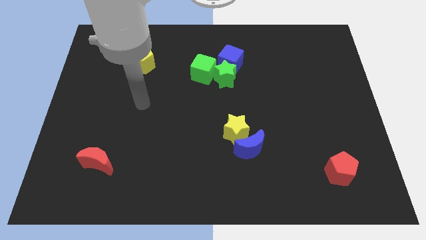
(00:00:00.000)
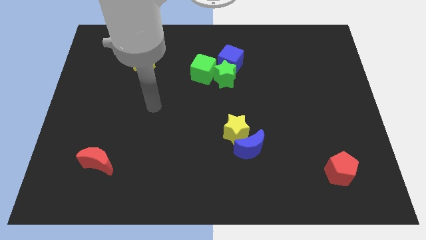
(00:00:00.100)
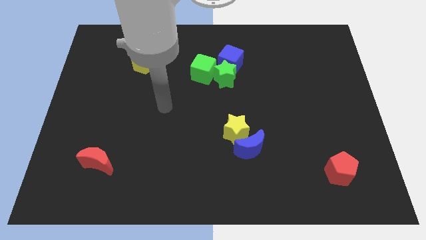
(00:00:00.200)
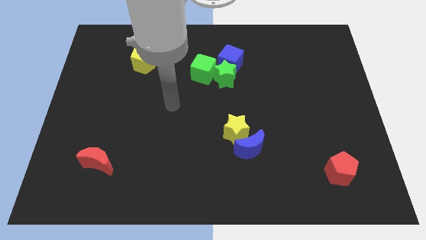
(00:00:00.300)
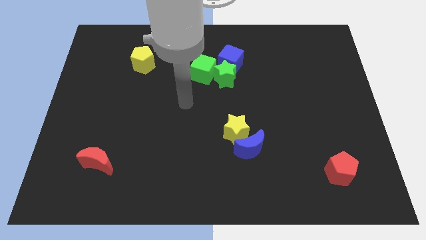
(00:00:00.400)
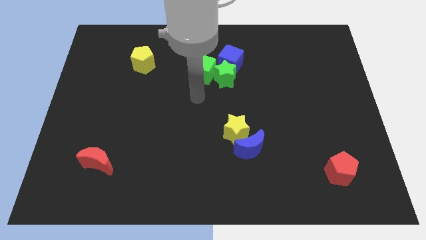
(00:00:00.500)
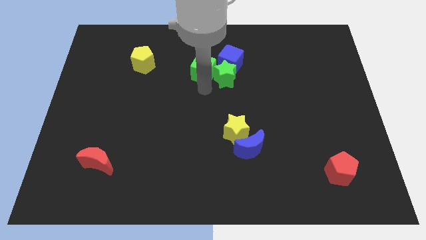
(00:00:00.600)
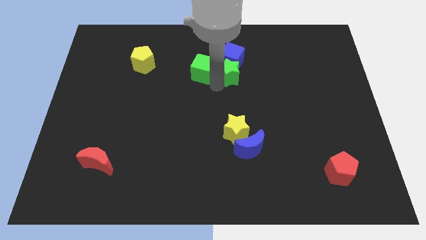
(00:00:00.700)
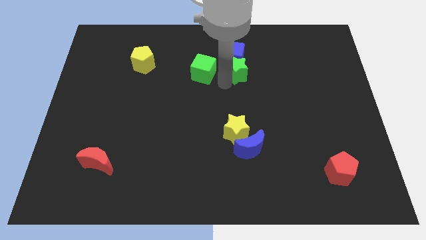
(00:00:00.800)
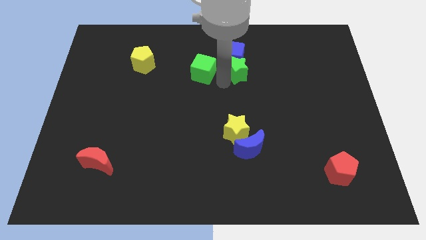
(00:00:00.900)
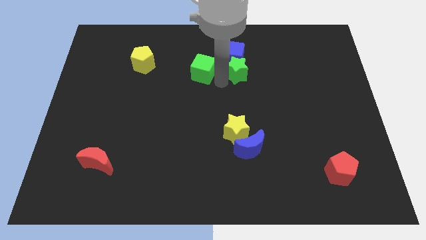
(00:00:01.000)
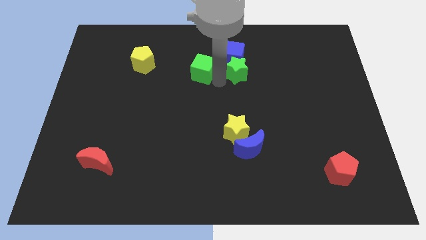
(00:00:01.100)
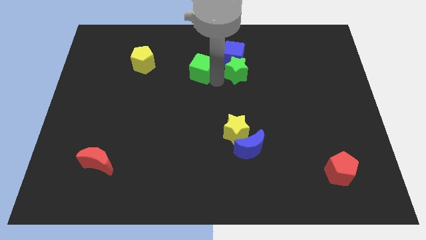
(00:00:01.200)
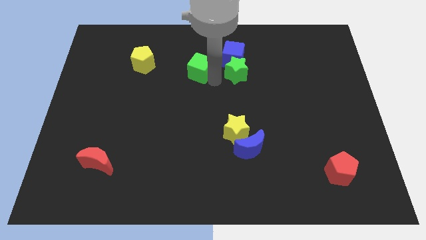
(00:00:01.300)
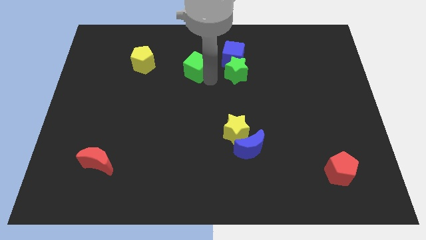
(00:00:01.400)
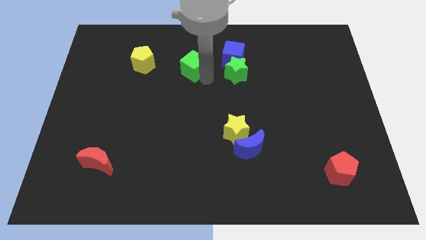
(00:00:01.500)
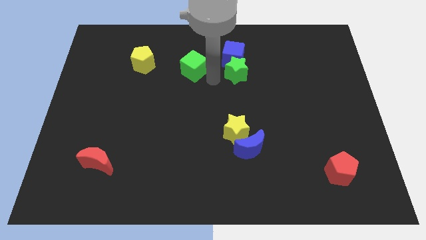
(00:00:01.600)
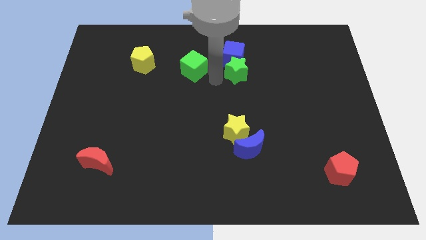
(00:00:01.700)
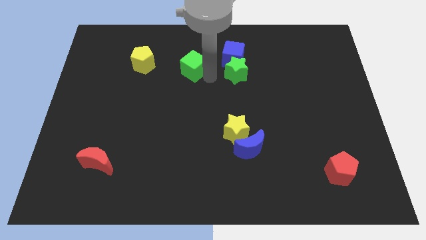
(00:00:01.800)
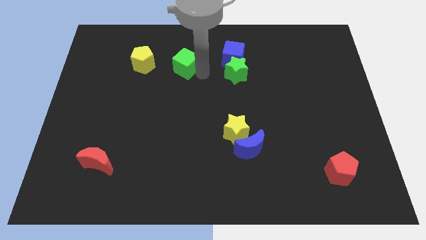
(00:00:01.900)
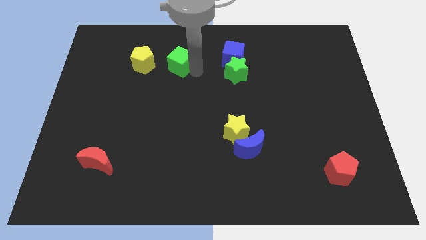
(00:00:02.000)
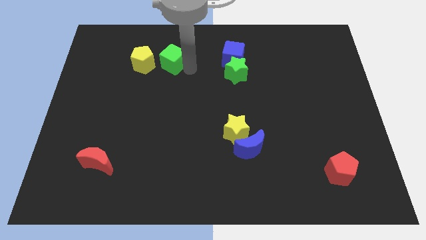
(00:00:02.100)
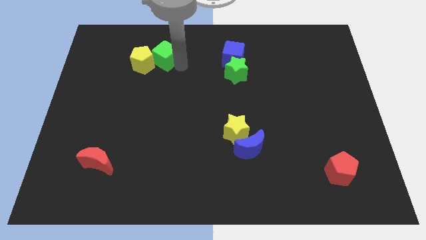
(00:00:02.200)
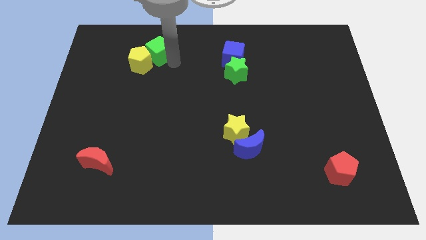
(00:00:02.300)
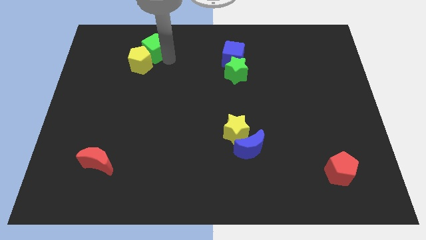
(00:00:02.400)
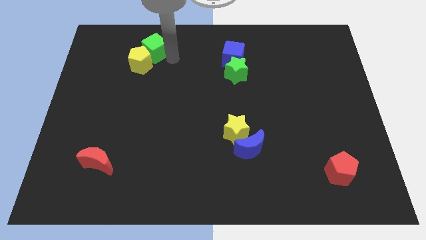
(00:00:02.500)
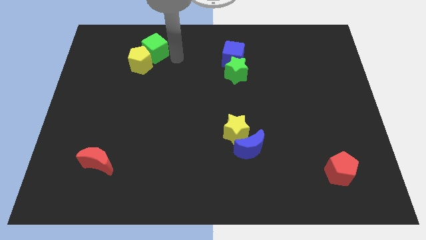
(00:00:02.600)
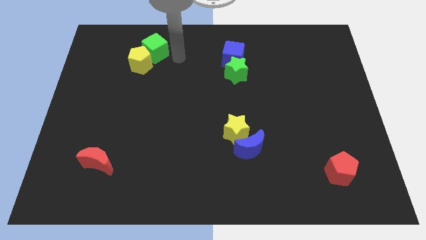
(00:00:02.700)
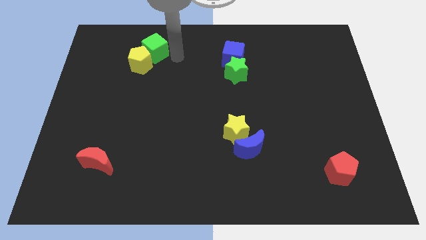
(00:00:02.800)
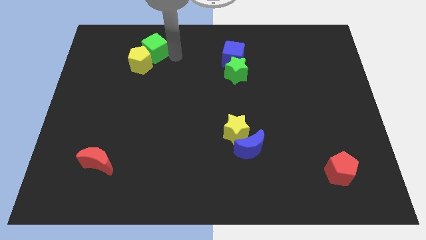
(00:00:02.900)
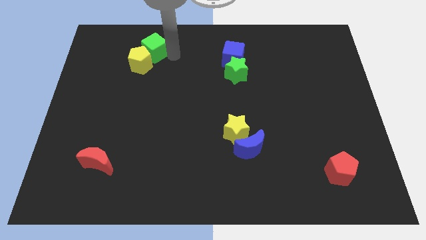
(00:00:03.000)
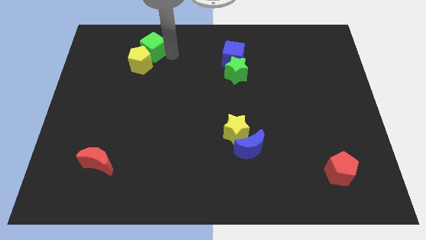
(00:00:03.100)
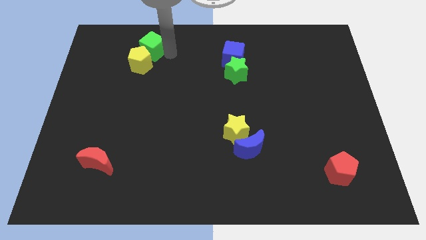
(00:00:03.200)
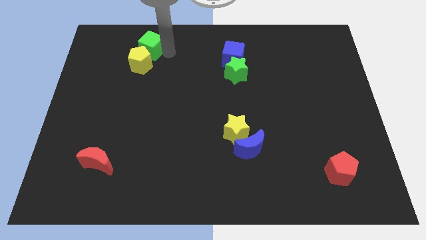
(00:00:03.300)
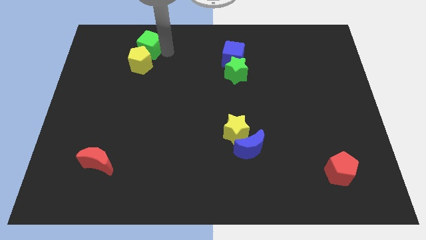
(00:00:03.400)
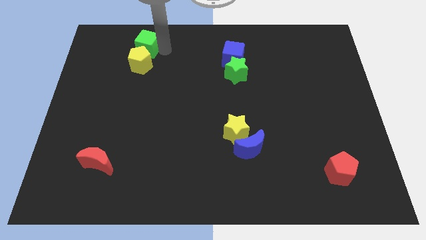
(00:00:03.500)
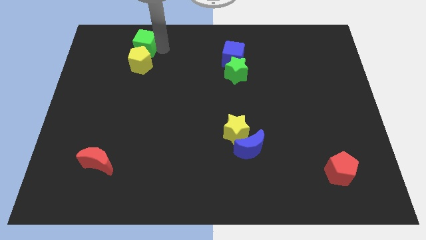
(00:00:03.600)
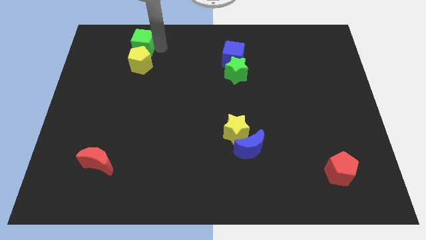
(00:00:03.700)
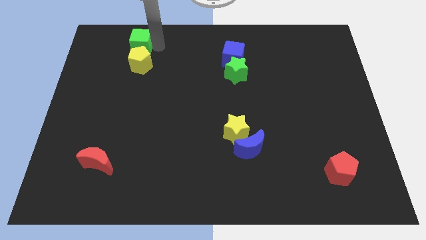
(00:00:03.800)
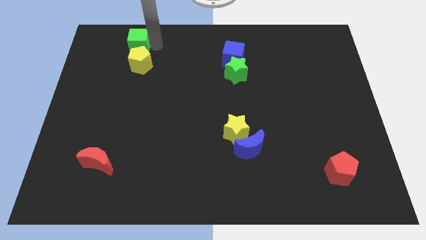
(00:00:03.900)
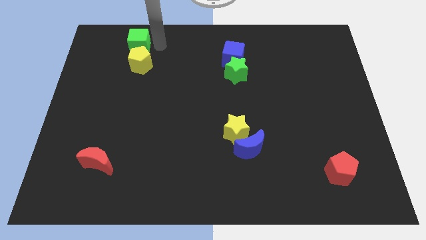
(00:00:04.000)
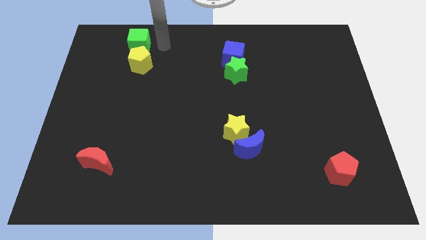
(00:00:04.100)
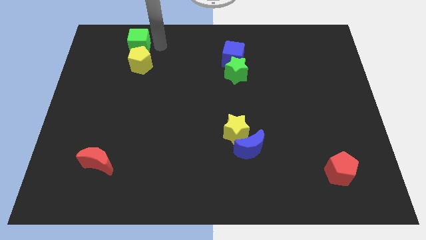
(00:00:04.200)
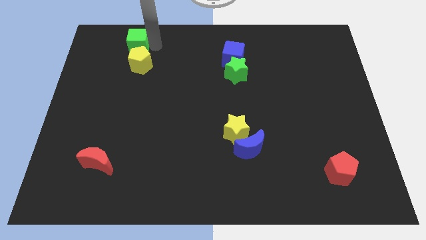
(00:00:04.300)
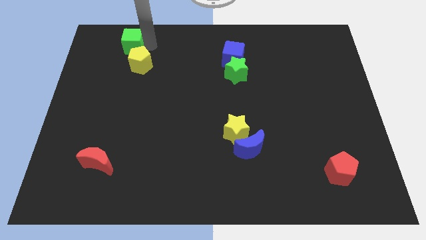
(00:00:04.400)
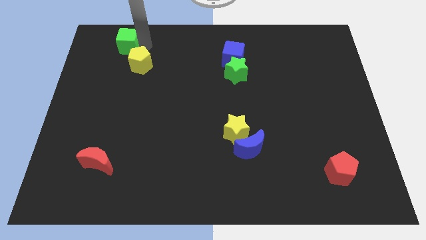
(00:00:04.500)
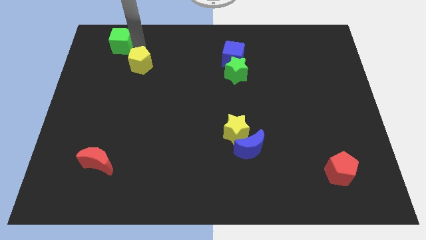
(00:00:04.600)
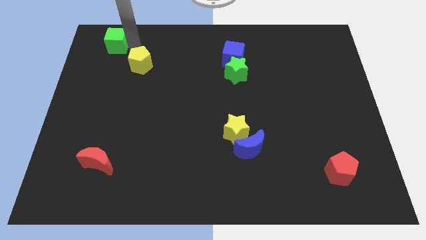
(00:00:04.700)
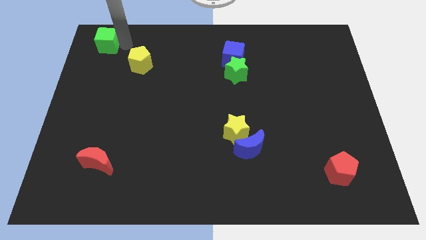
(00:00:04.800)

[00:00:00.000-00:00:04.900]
move the green cube to the top left

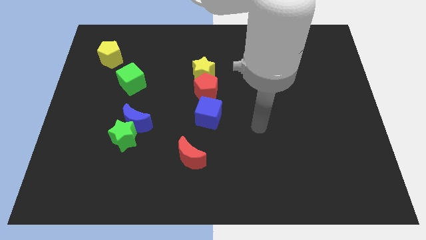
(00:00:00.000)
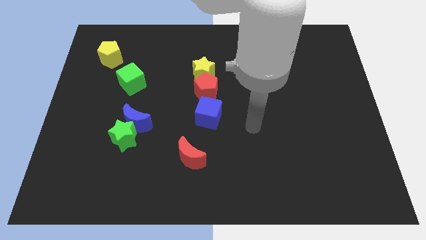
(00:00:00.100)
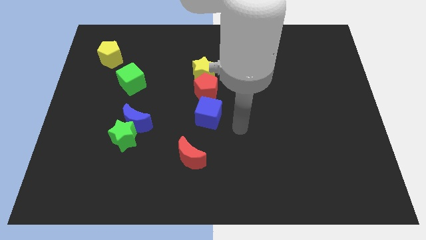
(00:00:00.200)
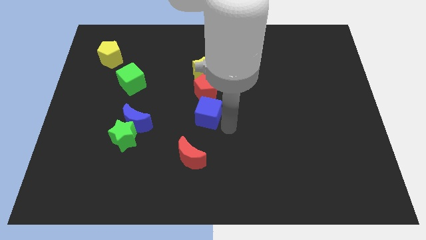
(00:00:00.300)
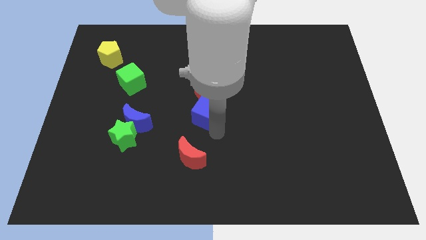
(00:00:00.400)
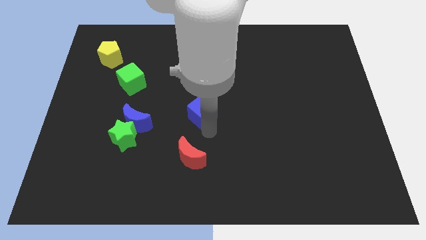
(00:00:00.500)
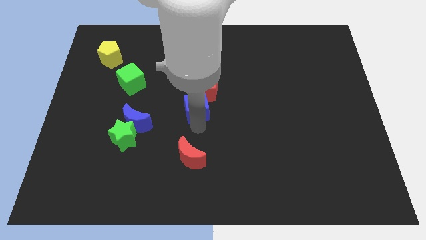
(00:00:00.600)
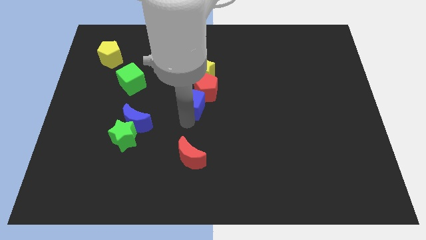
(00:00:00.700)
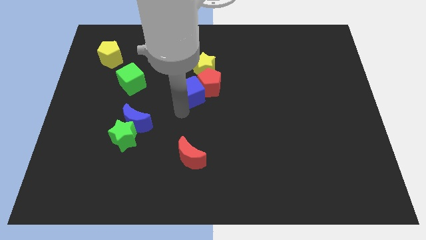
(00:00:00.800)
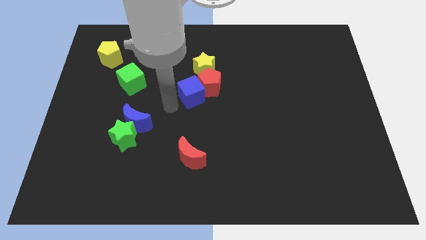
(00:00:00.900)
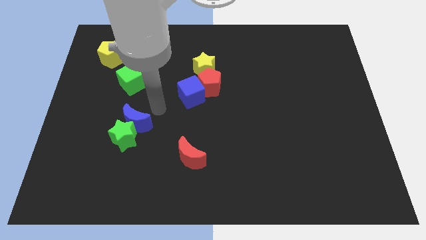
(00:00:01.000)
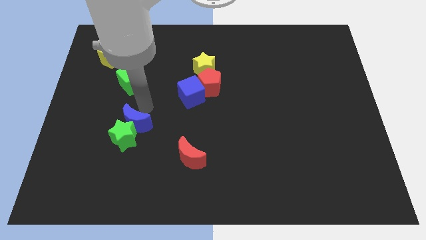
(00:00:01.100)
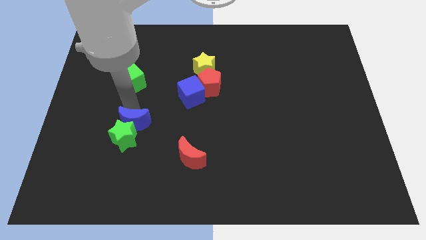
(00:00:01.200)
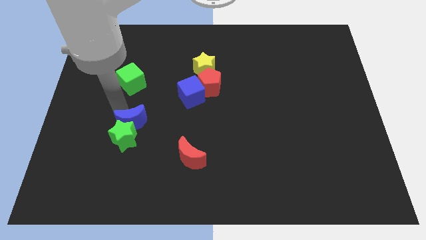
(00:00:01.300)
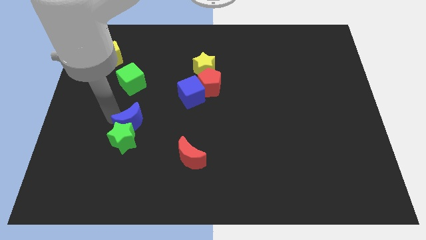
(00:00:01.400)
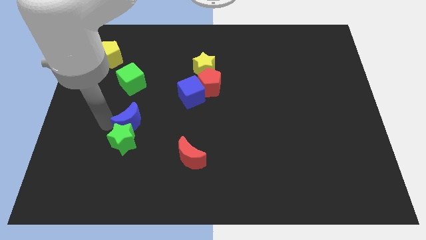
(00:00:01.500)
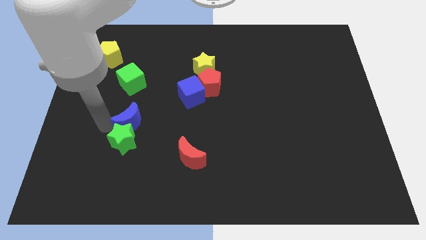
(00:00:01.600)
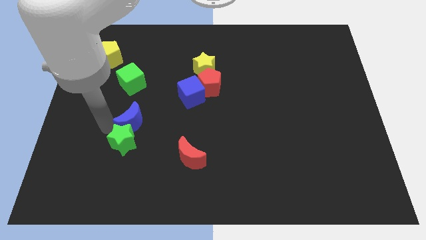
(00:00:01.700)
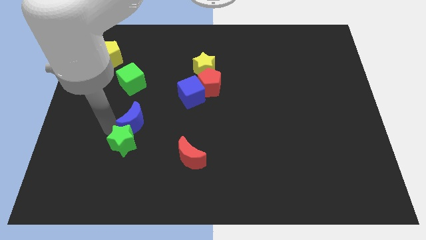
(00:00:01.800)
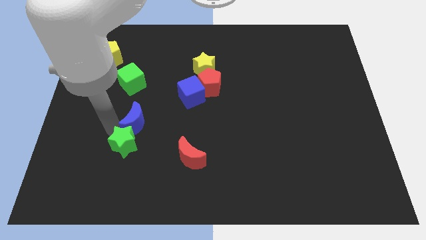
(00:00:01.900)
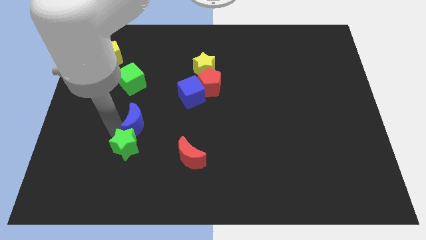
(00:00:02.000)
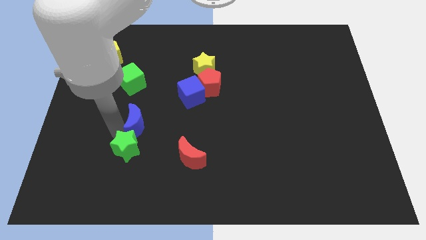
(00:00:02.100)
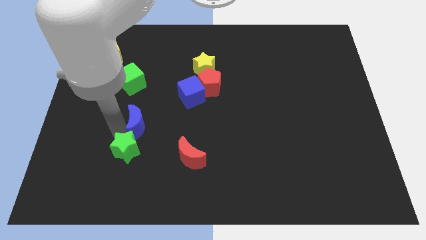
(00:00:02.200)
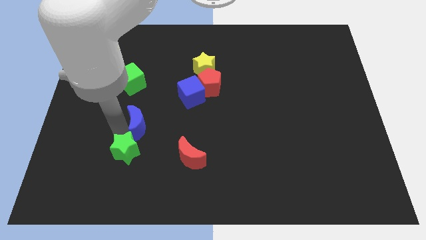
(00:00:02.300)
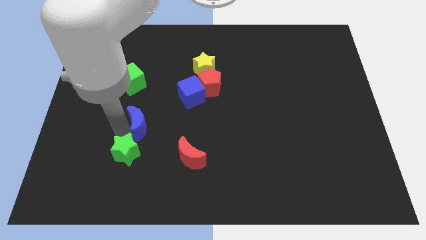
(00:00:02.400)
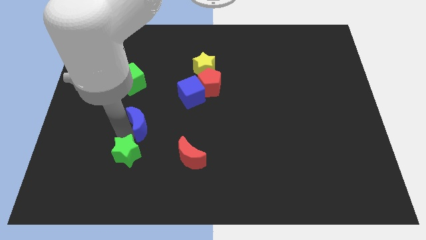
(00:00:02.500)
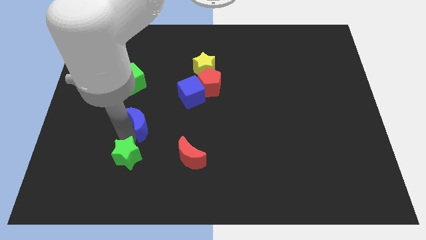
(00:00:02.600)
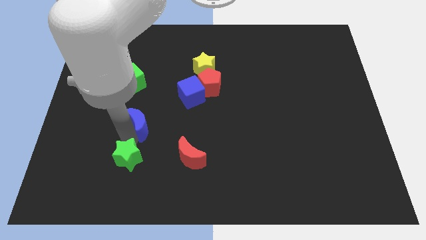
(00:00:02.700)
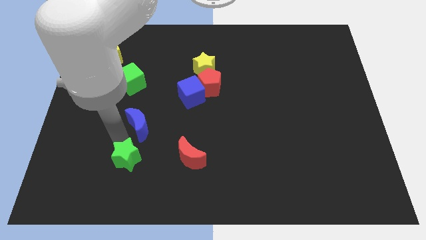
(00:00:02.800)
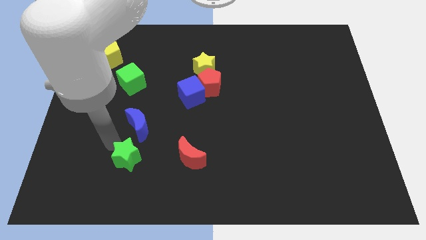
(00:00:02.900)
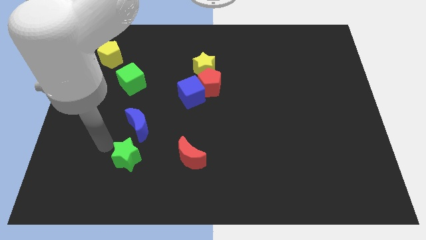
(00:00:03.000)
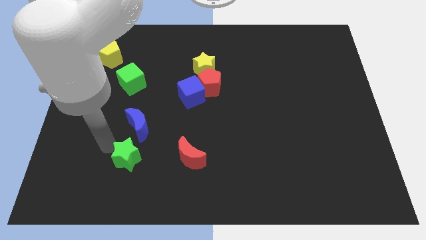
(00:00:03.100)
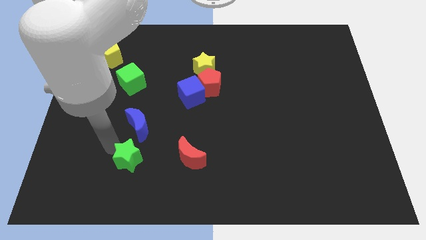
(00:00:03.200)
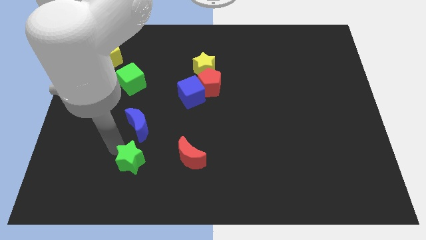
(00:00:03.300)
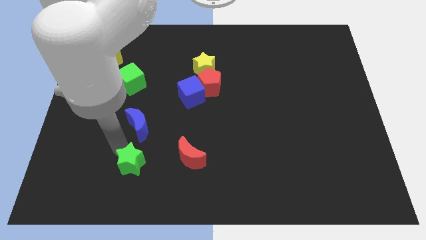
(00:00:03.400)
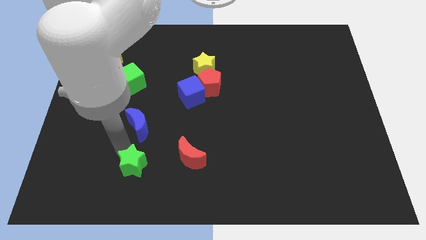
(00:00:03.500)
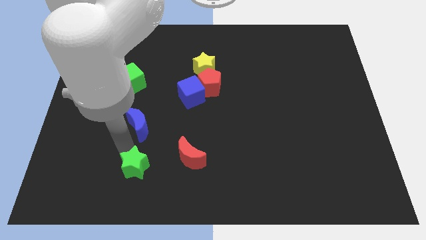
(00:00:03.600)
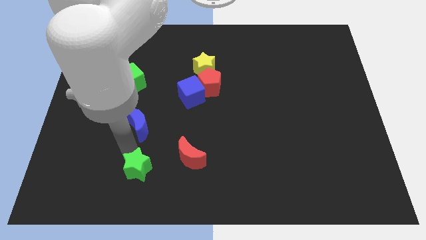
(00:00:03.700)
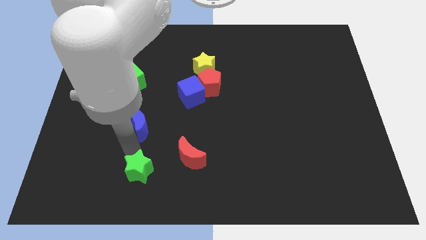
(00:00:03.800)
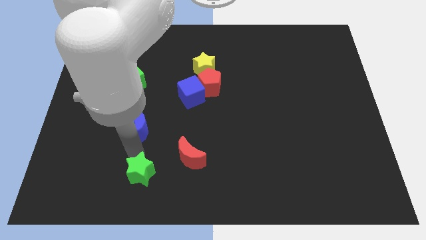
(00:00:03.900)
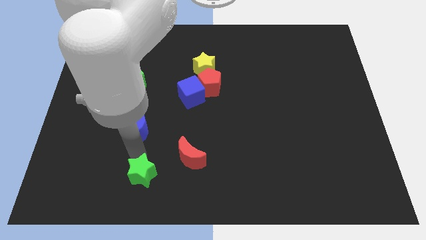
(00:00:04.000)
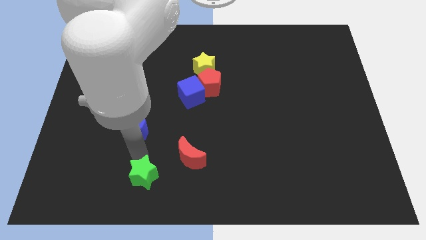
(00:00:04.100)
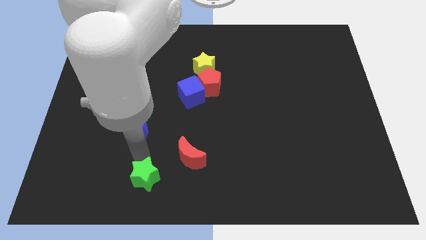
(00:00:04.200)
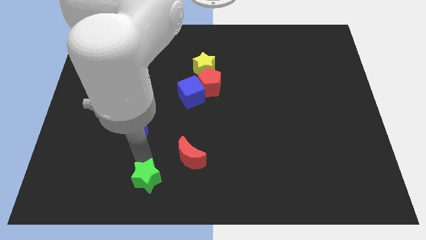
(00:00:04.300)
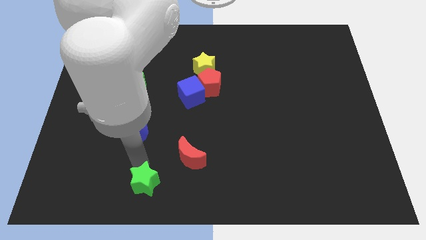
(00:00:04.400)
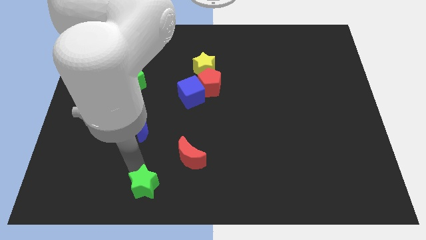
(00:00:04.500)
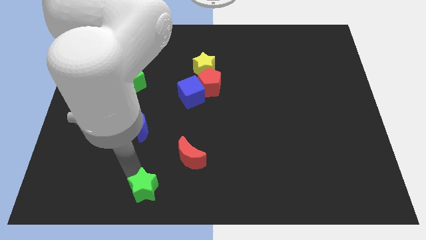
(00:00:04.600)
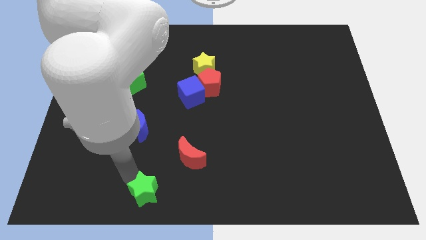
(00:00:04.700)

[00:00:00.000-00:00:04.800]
put the green star to the bottom
